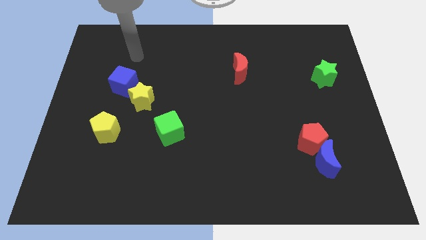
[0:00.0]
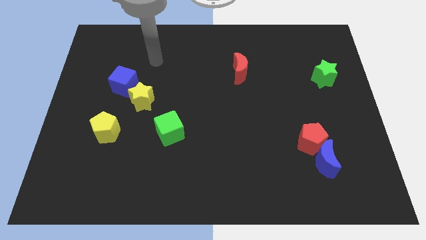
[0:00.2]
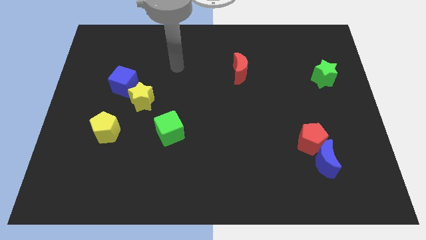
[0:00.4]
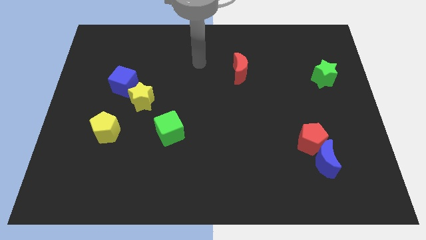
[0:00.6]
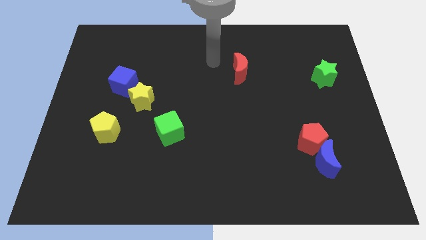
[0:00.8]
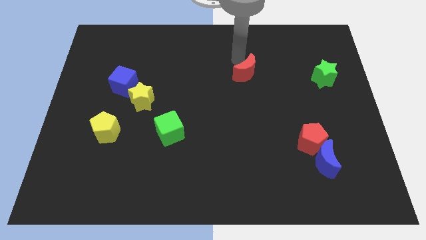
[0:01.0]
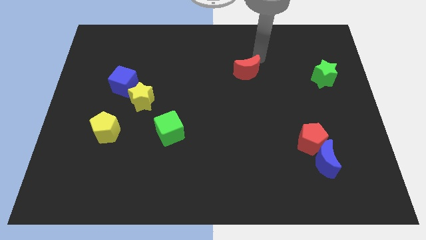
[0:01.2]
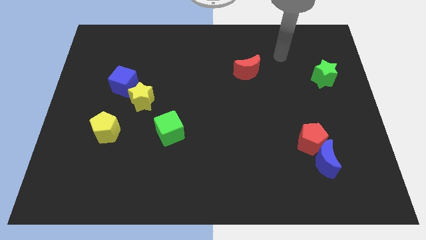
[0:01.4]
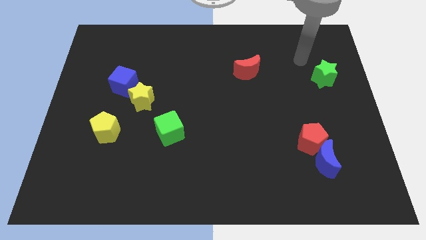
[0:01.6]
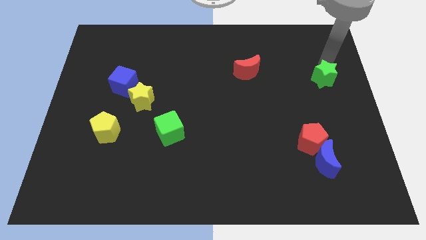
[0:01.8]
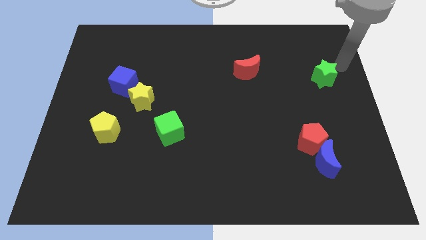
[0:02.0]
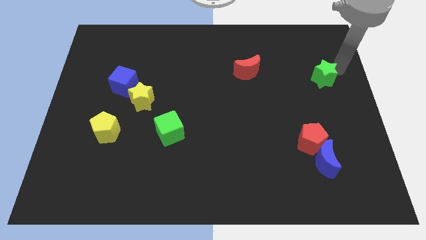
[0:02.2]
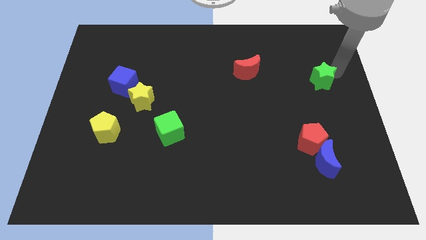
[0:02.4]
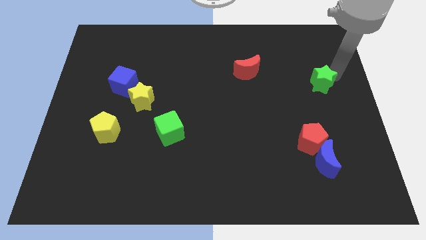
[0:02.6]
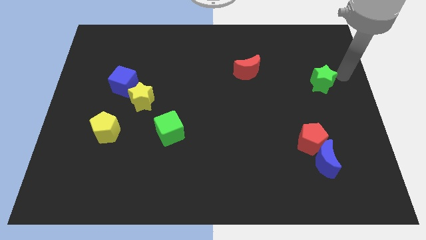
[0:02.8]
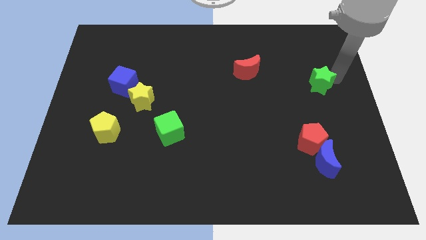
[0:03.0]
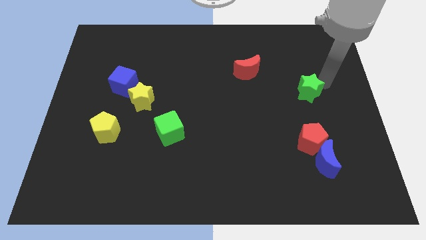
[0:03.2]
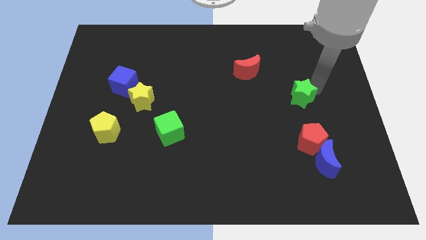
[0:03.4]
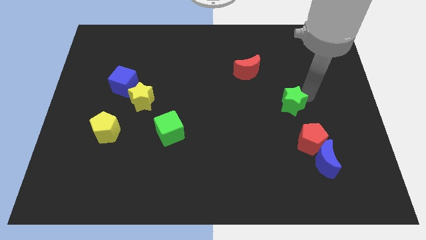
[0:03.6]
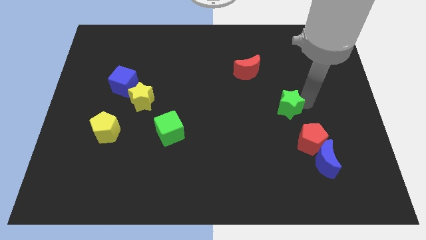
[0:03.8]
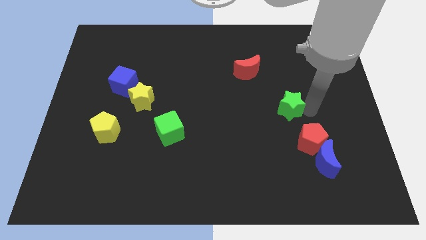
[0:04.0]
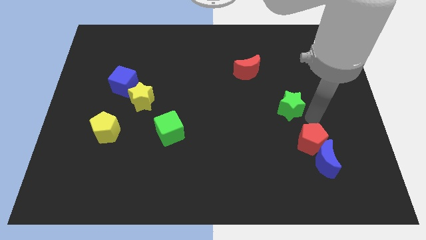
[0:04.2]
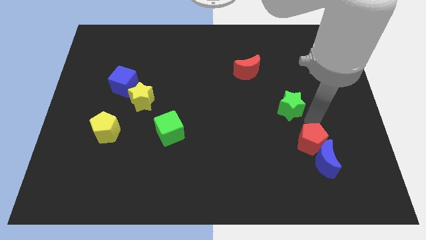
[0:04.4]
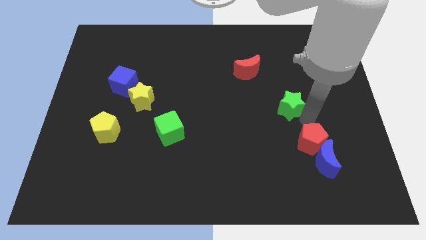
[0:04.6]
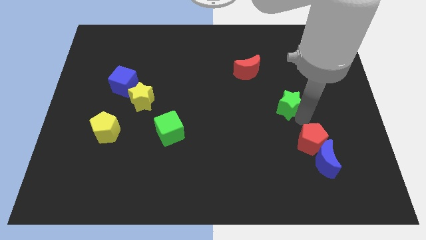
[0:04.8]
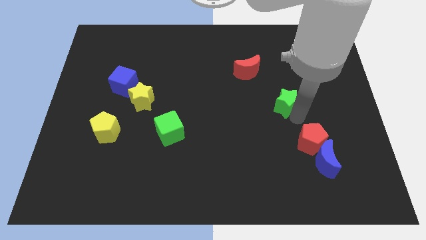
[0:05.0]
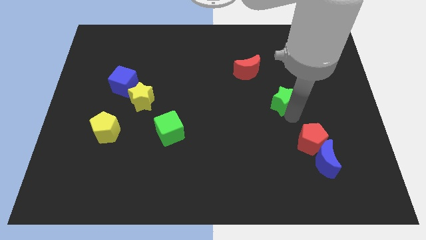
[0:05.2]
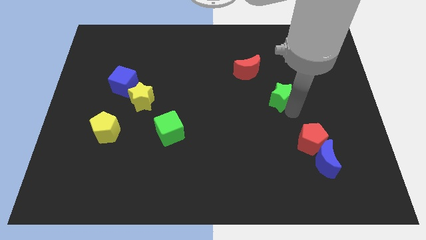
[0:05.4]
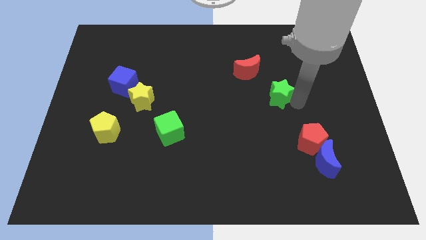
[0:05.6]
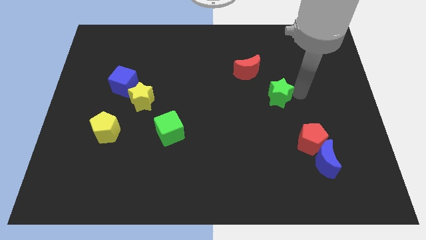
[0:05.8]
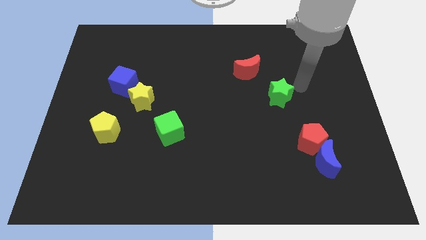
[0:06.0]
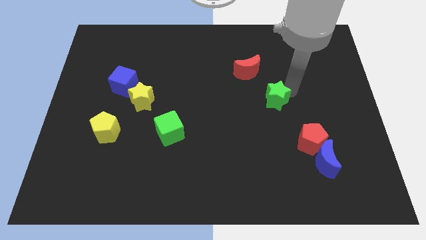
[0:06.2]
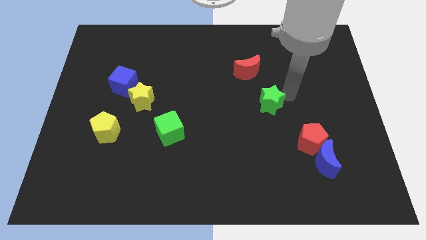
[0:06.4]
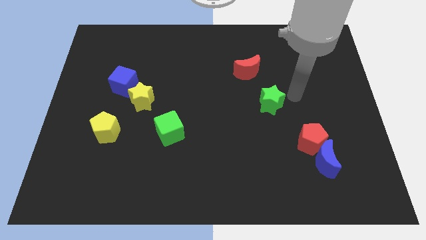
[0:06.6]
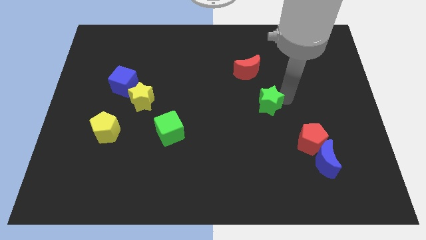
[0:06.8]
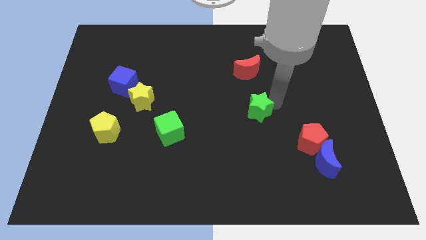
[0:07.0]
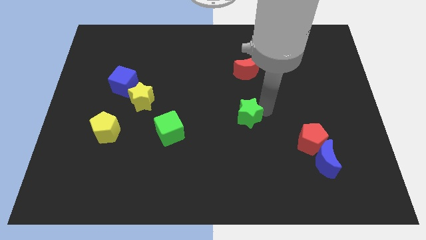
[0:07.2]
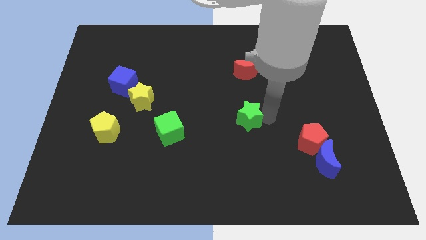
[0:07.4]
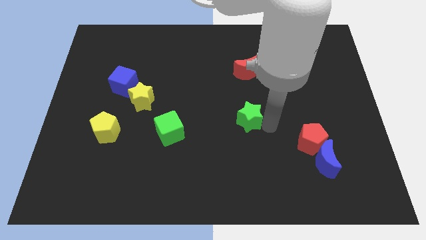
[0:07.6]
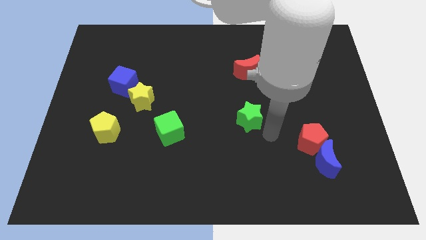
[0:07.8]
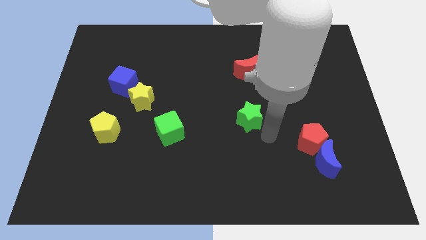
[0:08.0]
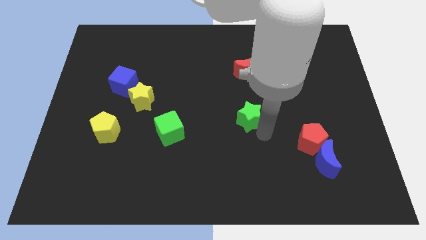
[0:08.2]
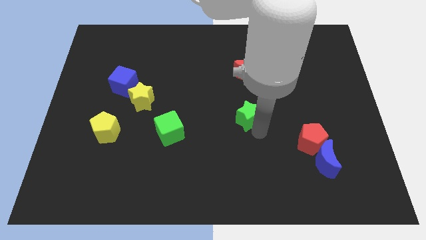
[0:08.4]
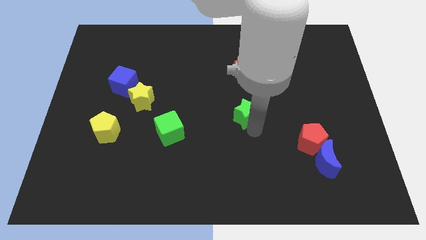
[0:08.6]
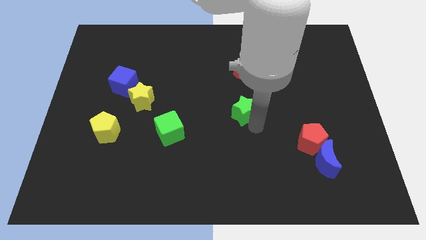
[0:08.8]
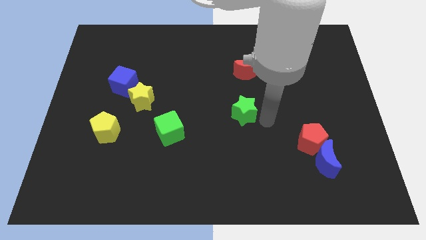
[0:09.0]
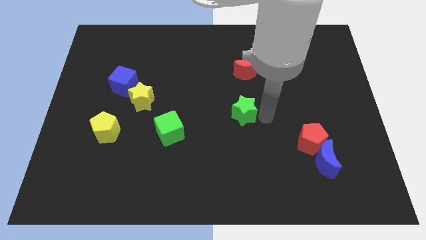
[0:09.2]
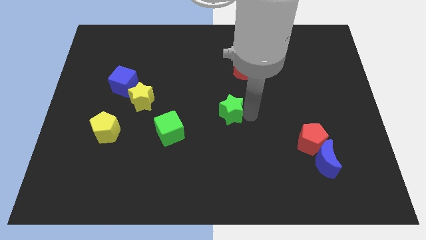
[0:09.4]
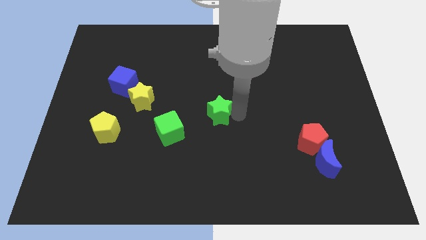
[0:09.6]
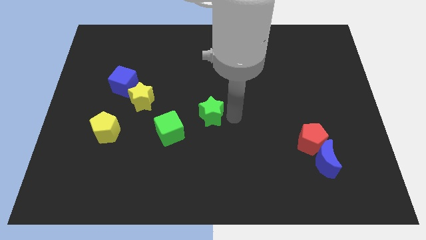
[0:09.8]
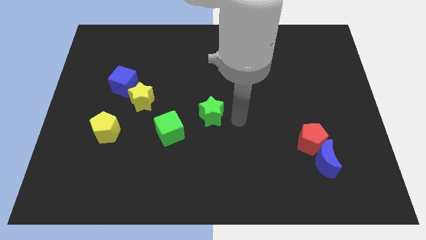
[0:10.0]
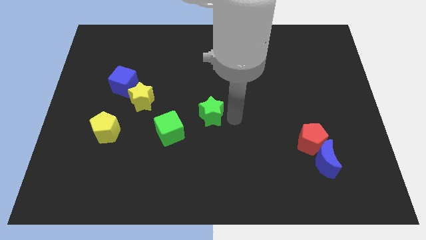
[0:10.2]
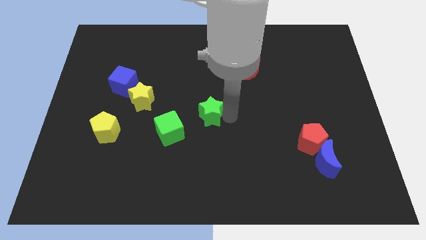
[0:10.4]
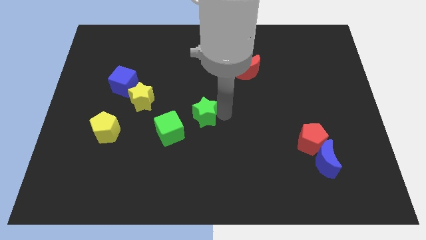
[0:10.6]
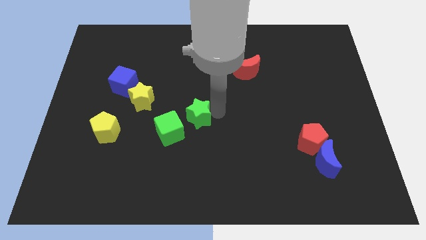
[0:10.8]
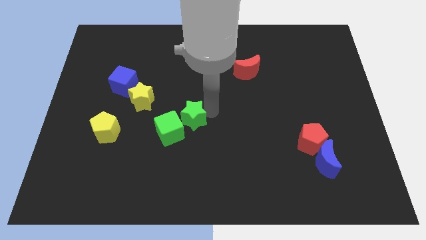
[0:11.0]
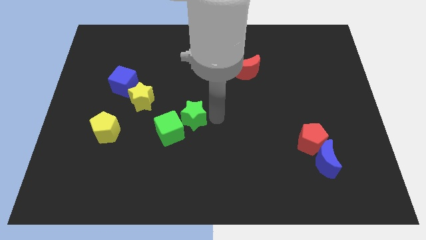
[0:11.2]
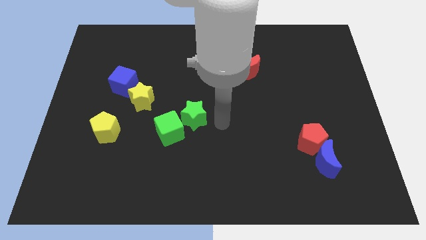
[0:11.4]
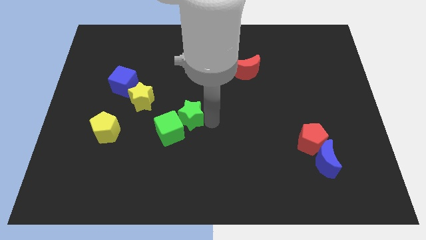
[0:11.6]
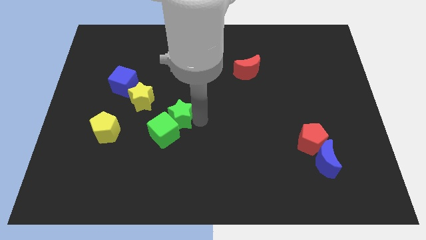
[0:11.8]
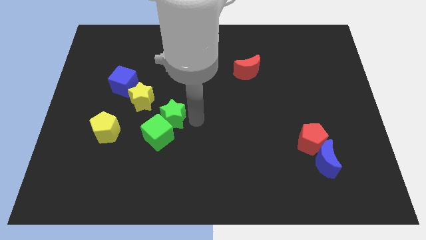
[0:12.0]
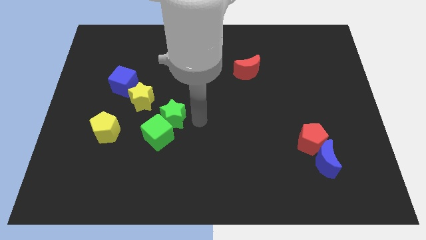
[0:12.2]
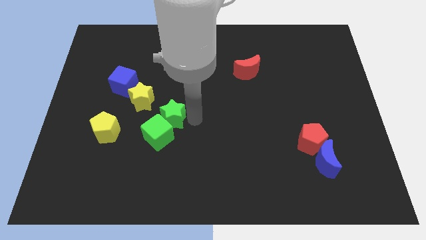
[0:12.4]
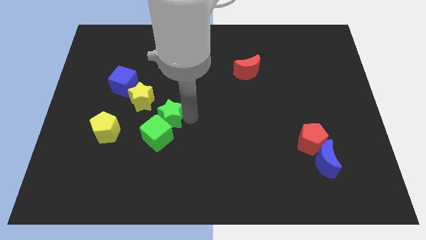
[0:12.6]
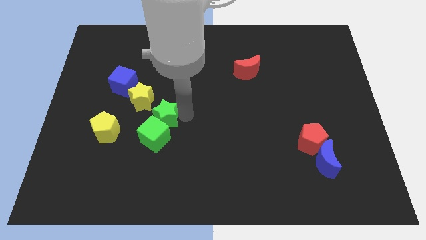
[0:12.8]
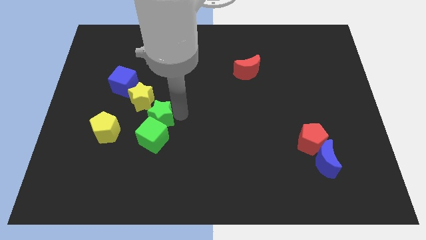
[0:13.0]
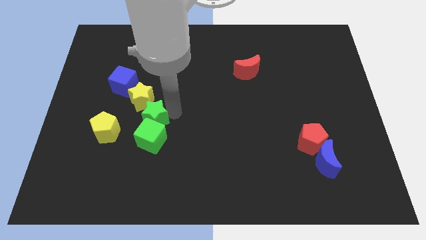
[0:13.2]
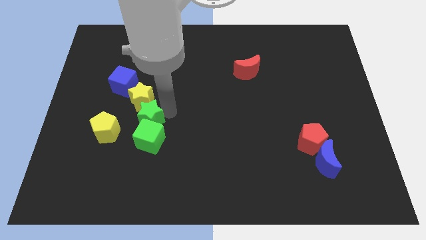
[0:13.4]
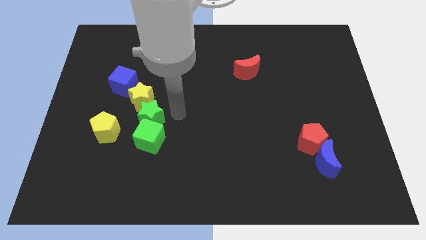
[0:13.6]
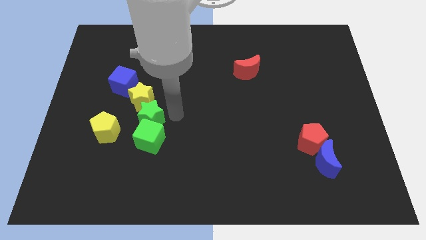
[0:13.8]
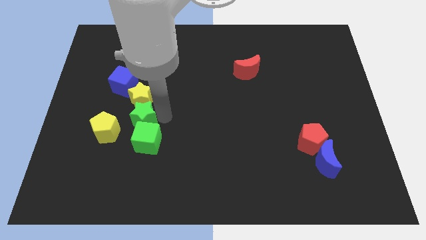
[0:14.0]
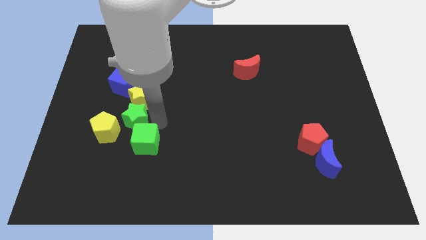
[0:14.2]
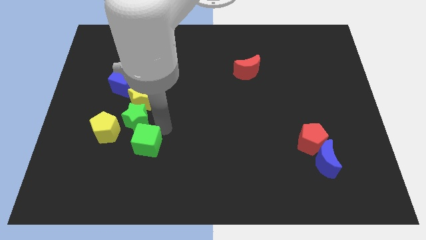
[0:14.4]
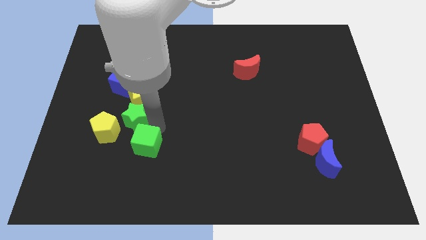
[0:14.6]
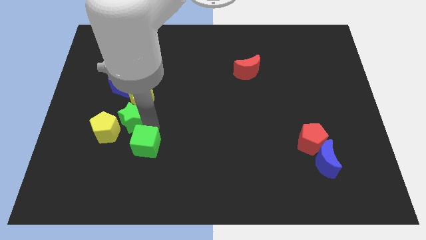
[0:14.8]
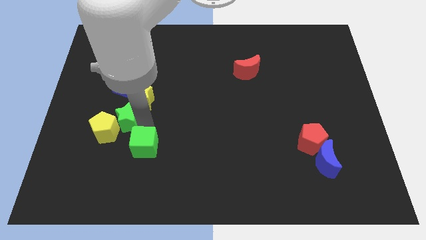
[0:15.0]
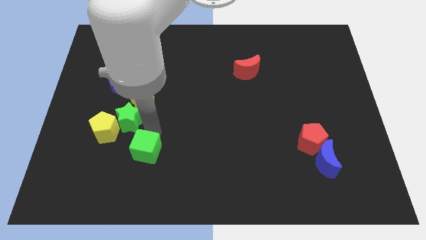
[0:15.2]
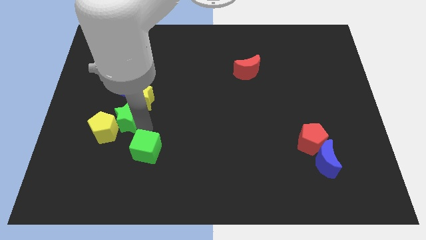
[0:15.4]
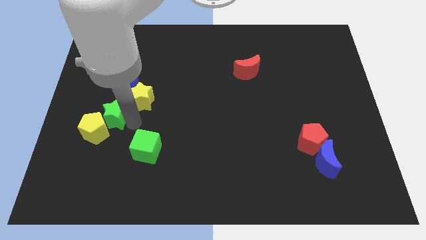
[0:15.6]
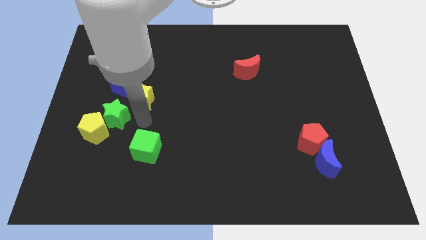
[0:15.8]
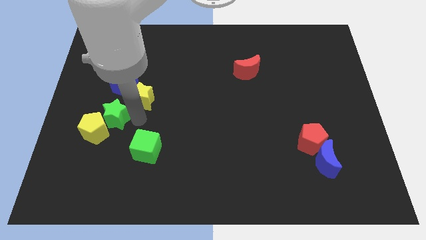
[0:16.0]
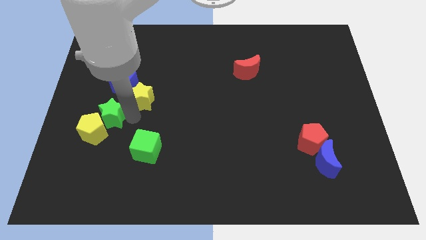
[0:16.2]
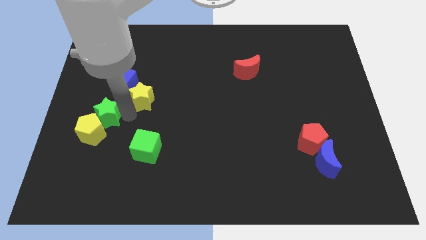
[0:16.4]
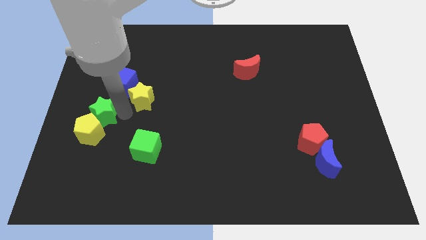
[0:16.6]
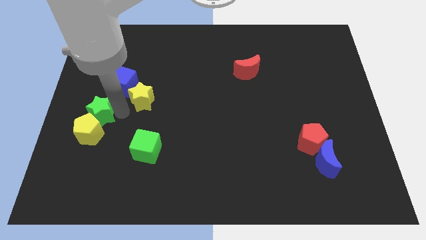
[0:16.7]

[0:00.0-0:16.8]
push the green star to the center left
